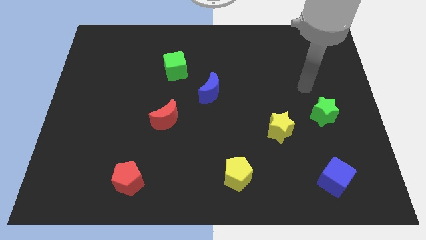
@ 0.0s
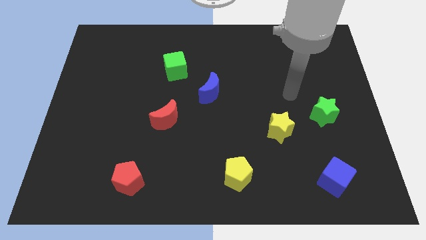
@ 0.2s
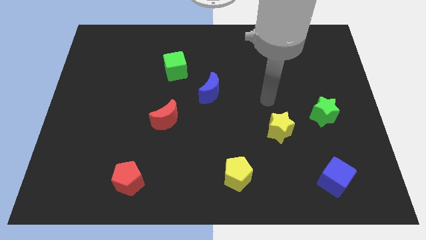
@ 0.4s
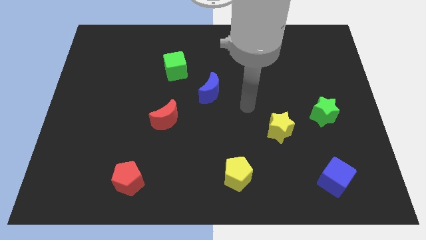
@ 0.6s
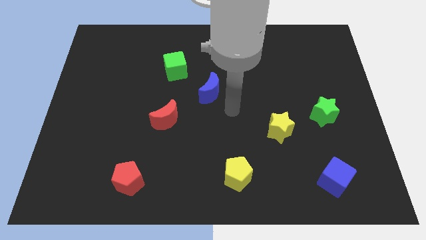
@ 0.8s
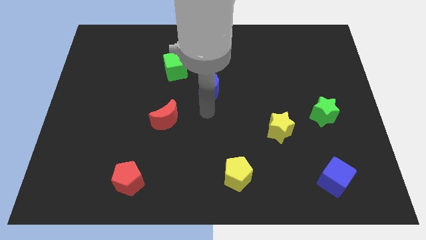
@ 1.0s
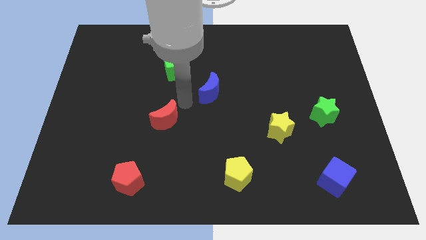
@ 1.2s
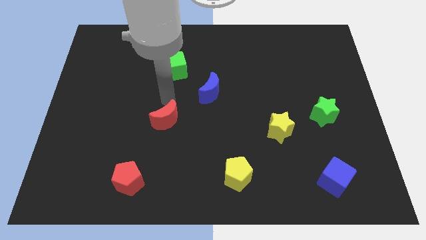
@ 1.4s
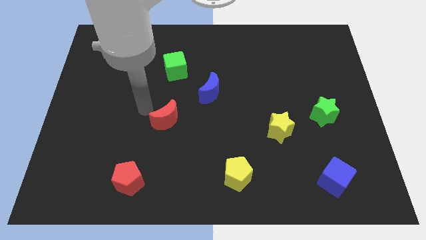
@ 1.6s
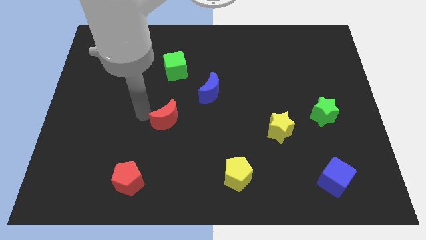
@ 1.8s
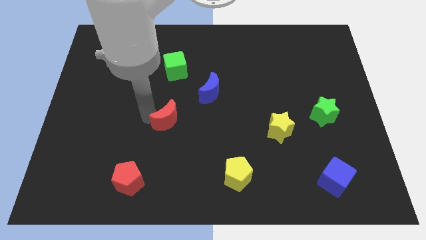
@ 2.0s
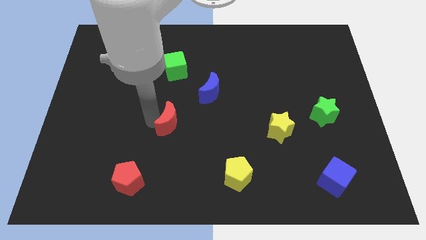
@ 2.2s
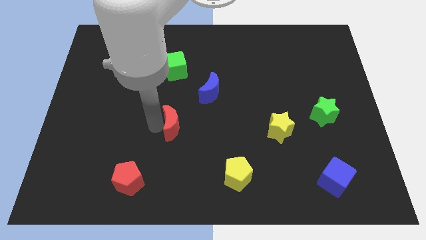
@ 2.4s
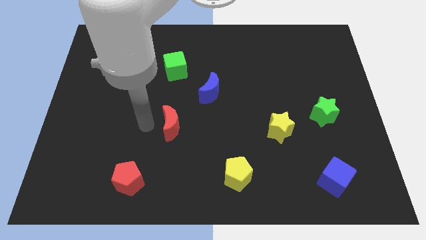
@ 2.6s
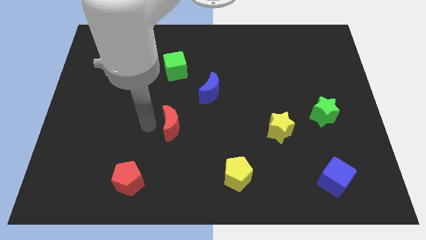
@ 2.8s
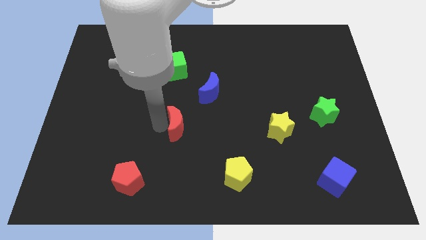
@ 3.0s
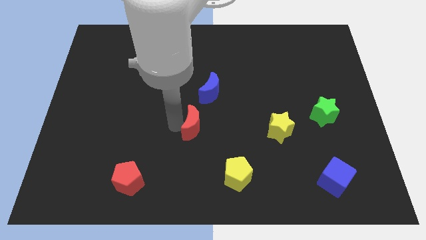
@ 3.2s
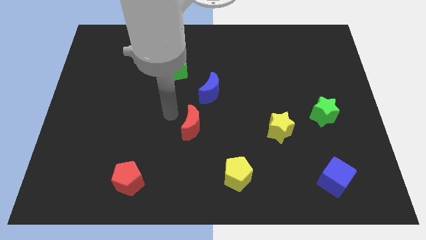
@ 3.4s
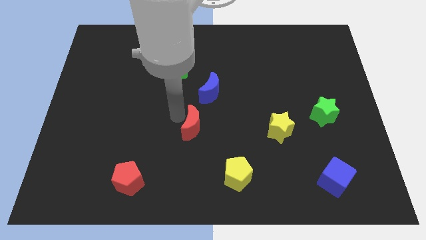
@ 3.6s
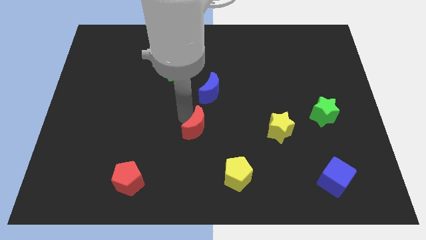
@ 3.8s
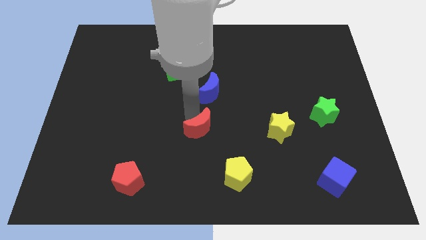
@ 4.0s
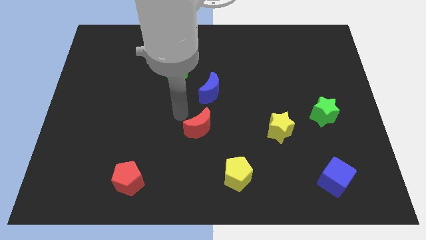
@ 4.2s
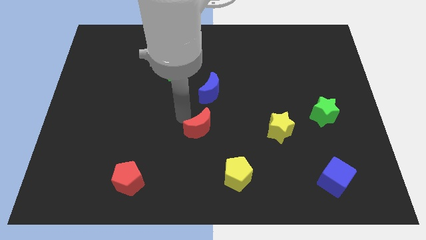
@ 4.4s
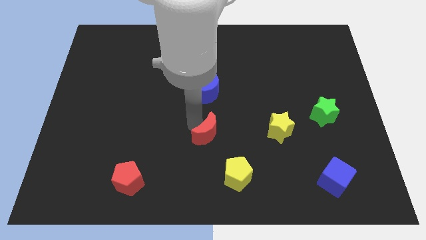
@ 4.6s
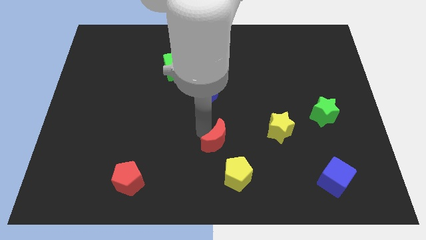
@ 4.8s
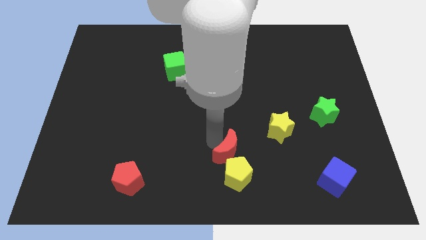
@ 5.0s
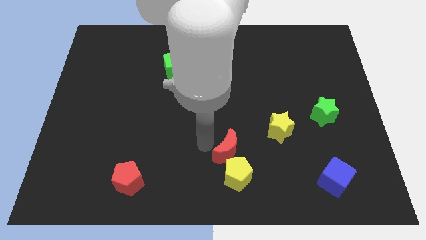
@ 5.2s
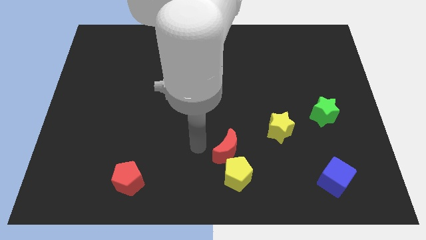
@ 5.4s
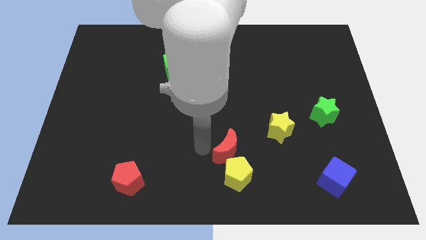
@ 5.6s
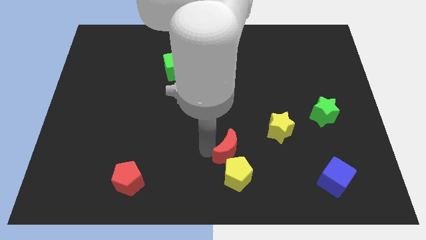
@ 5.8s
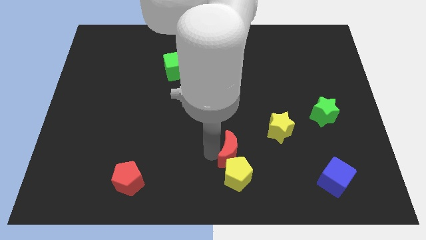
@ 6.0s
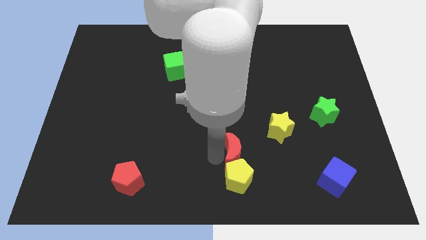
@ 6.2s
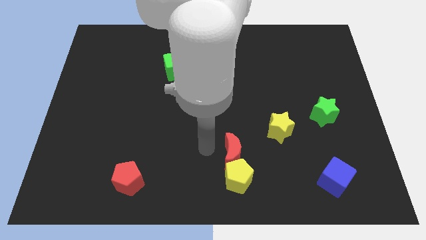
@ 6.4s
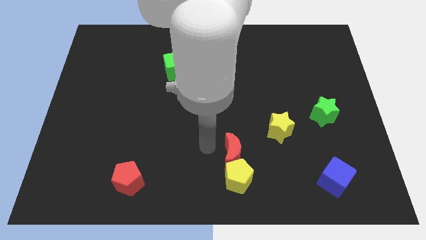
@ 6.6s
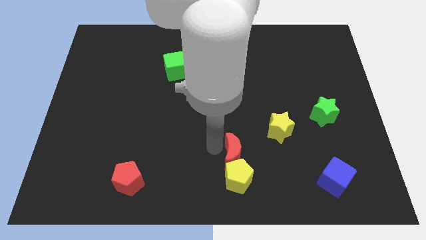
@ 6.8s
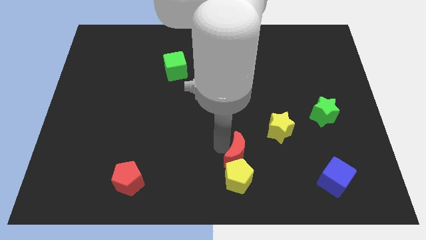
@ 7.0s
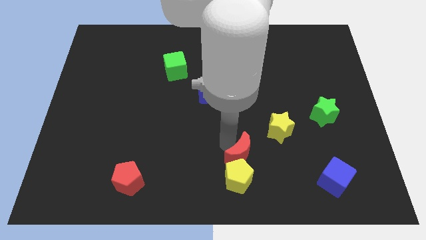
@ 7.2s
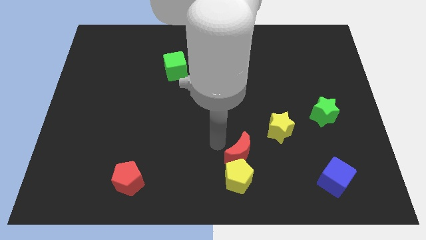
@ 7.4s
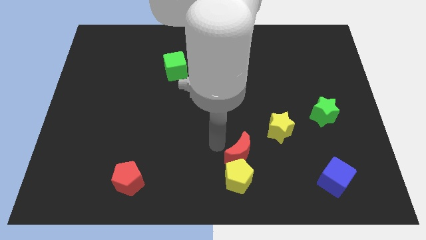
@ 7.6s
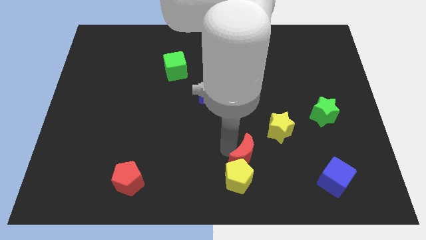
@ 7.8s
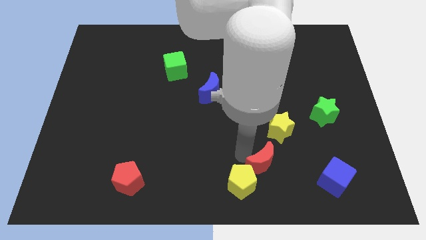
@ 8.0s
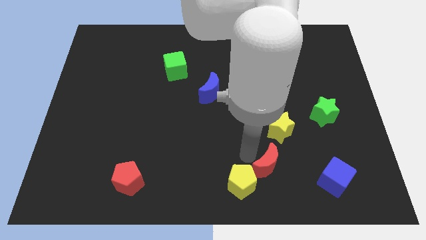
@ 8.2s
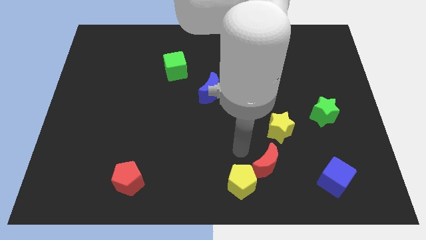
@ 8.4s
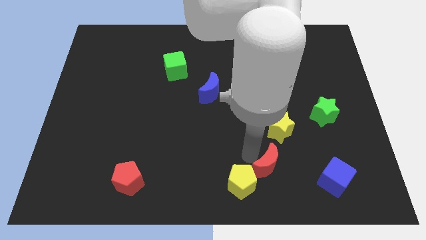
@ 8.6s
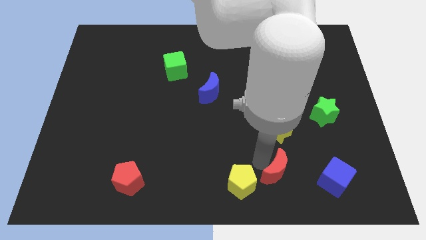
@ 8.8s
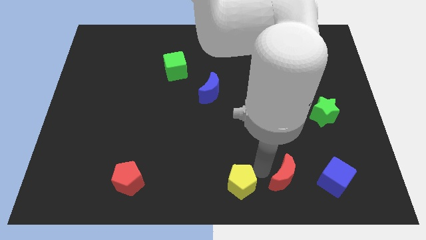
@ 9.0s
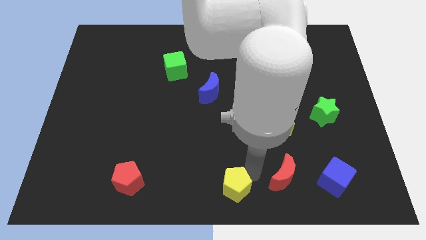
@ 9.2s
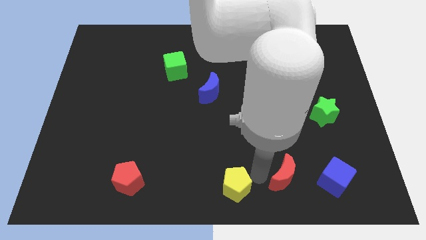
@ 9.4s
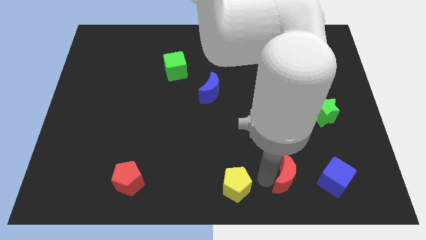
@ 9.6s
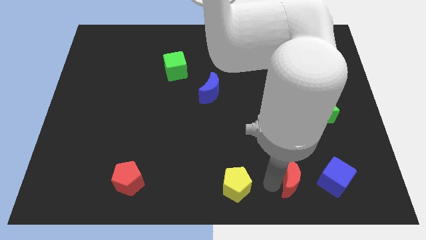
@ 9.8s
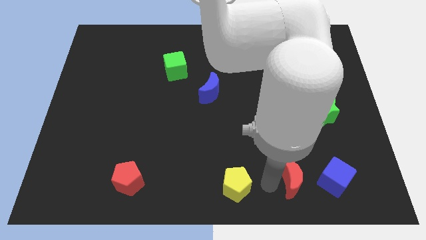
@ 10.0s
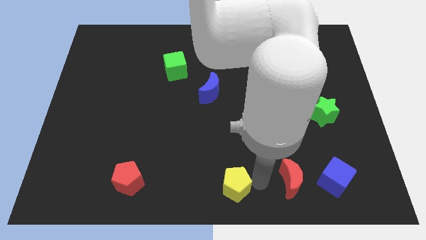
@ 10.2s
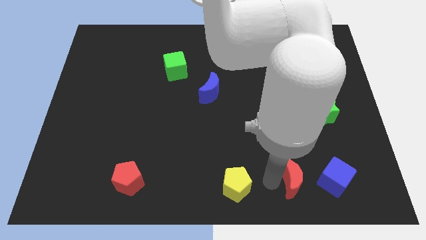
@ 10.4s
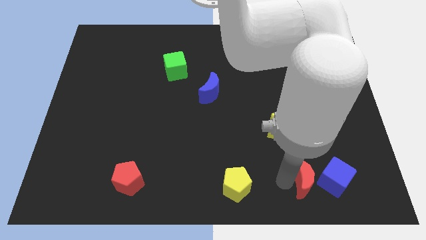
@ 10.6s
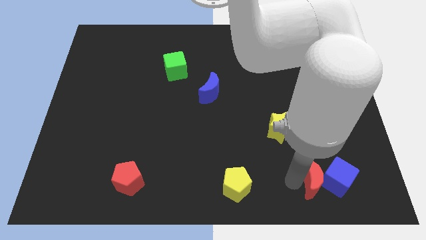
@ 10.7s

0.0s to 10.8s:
move the red moon towards the blue cube

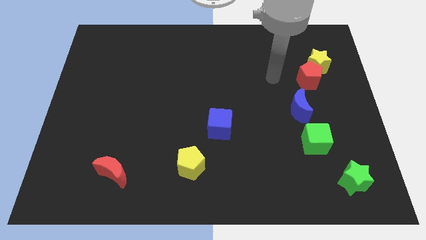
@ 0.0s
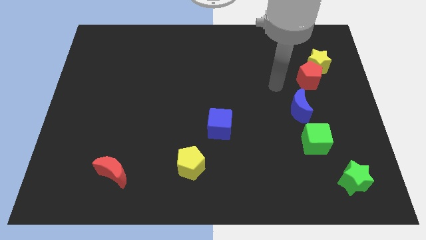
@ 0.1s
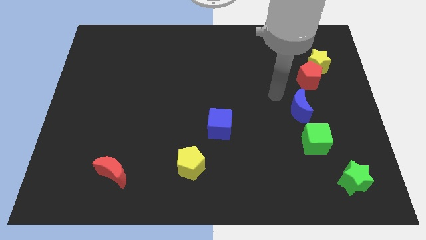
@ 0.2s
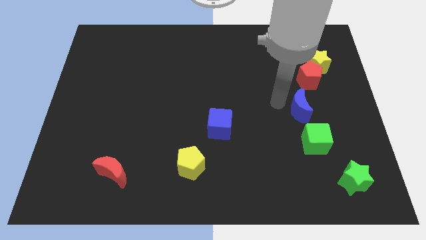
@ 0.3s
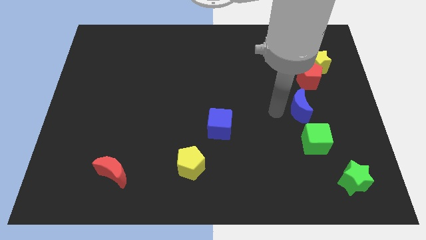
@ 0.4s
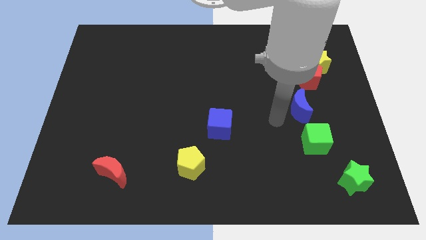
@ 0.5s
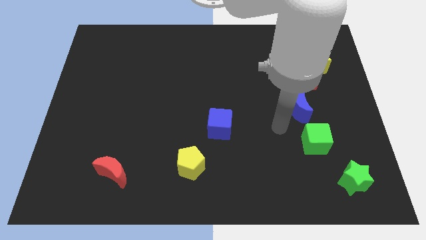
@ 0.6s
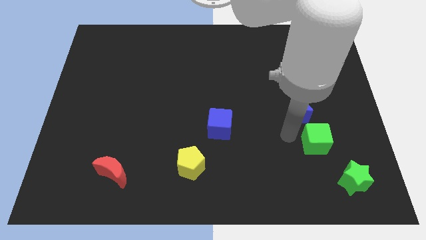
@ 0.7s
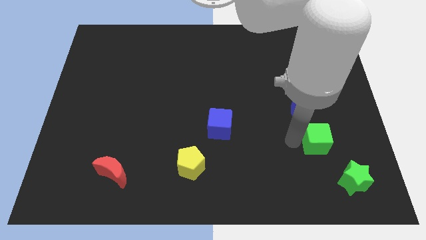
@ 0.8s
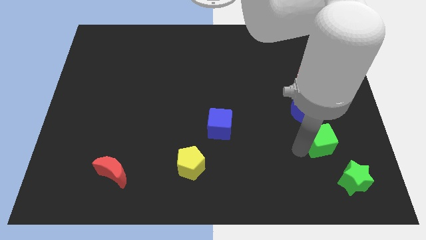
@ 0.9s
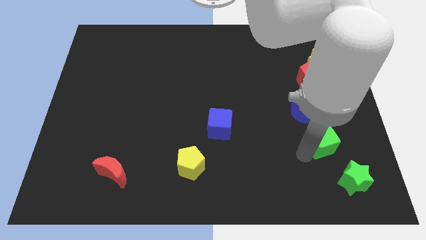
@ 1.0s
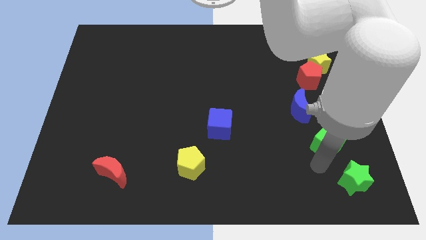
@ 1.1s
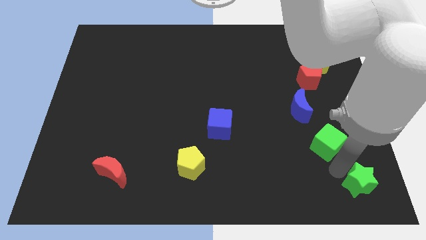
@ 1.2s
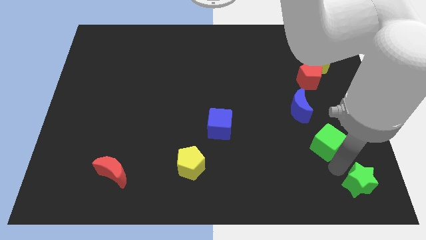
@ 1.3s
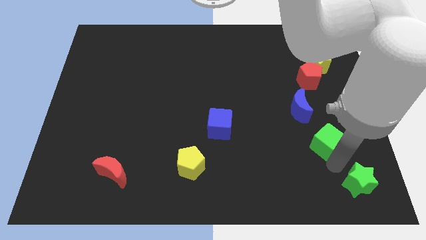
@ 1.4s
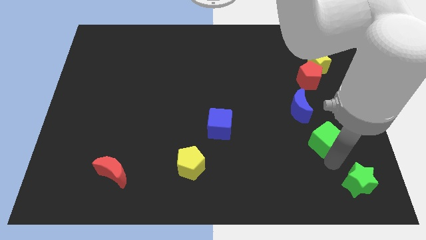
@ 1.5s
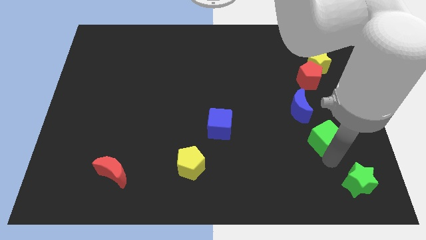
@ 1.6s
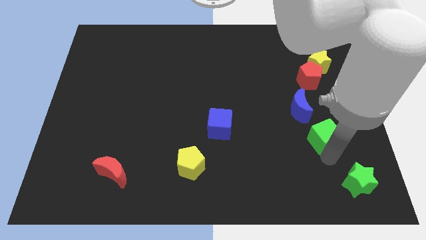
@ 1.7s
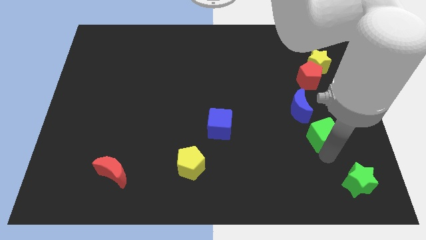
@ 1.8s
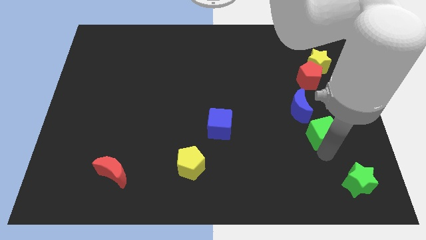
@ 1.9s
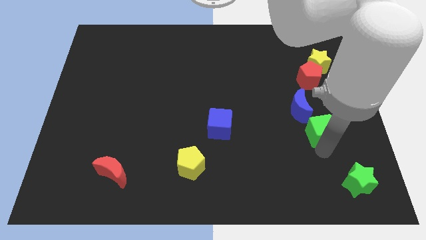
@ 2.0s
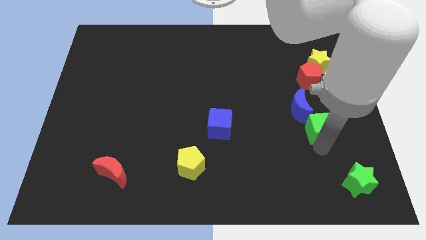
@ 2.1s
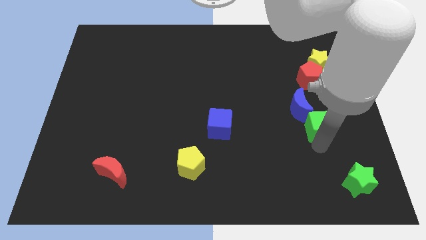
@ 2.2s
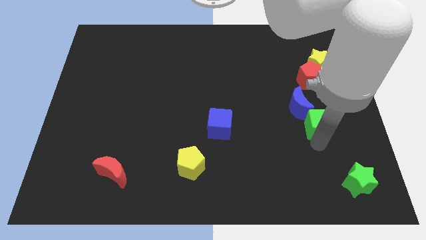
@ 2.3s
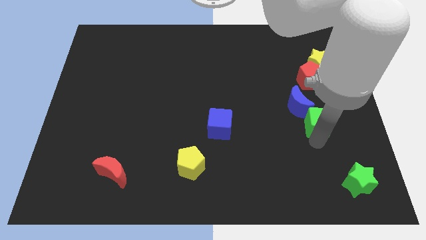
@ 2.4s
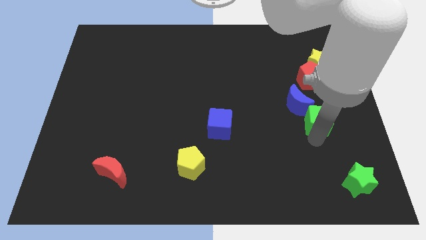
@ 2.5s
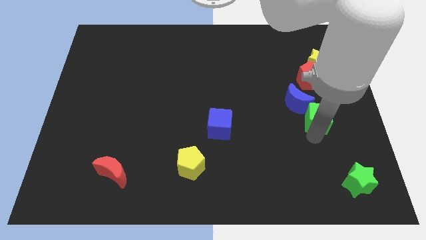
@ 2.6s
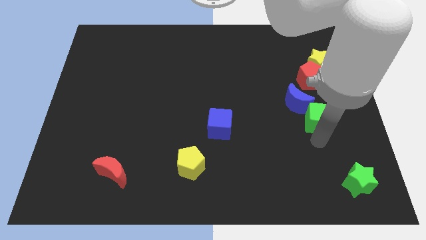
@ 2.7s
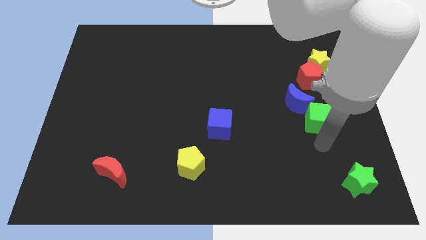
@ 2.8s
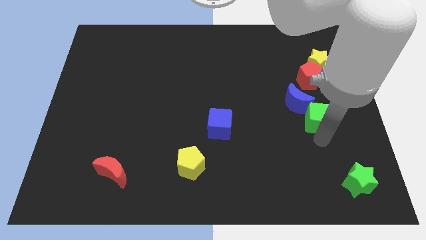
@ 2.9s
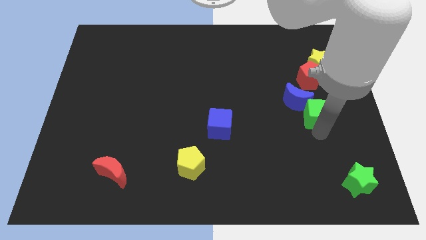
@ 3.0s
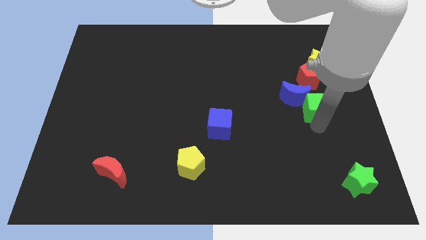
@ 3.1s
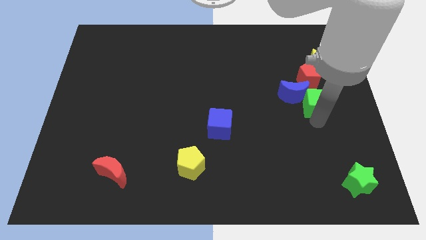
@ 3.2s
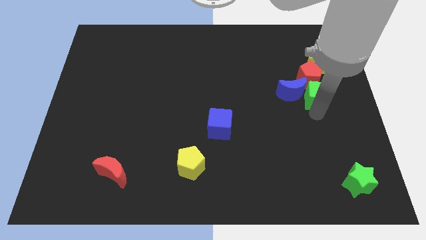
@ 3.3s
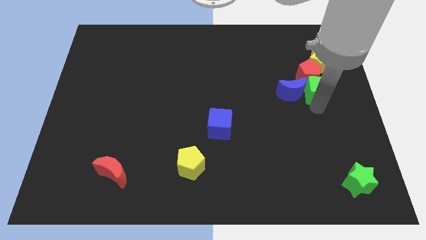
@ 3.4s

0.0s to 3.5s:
put the green cube close to the red pentagon
